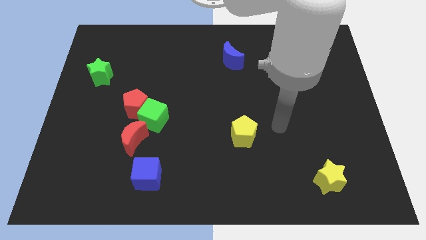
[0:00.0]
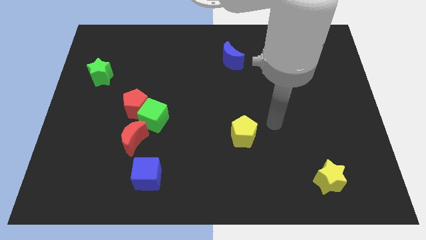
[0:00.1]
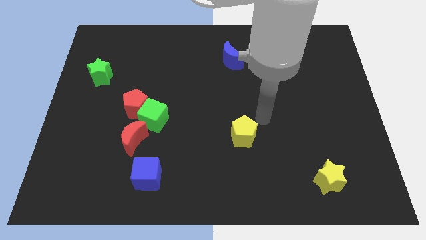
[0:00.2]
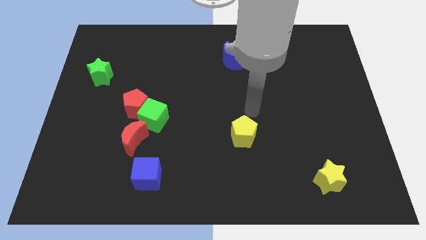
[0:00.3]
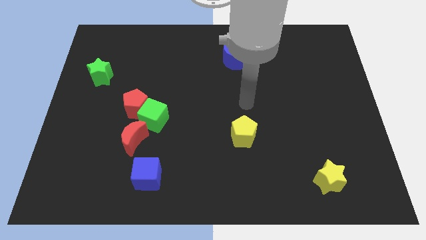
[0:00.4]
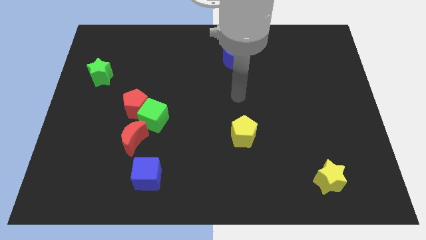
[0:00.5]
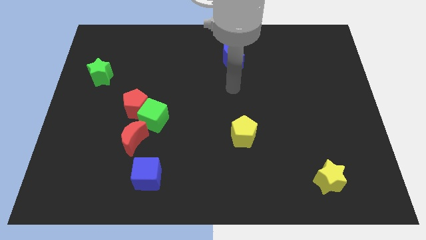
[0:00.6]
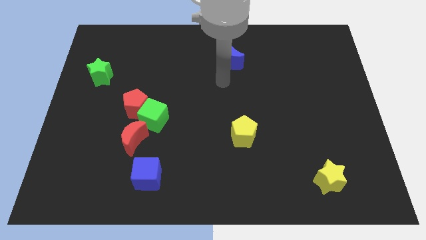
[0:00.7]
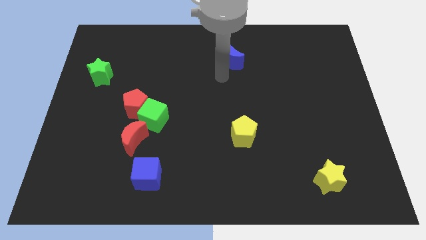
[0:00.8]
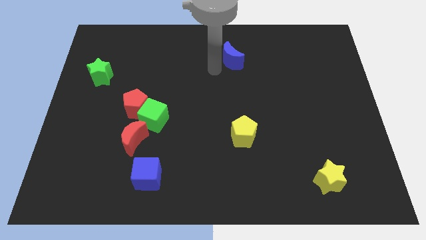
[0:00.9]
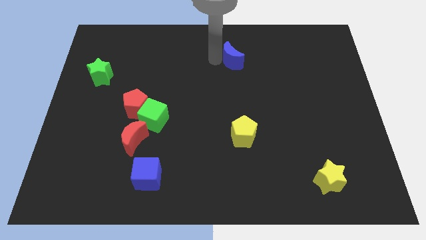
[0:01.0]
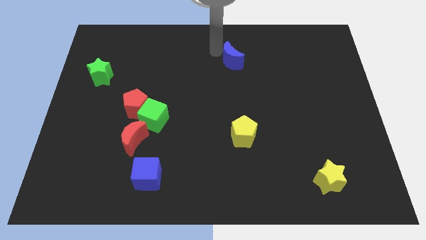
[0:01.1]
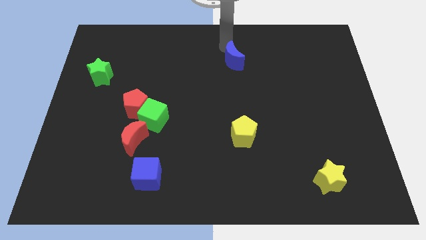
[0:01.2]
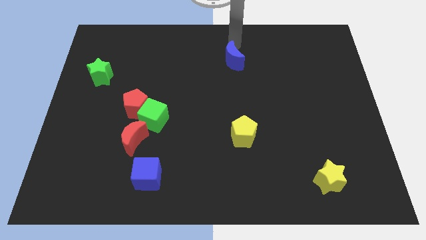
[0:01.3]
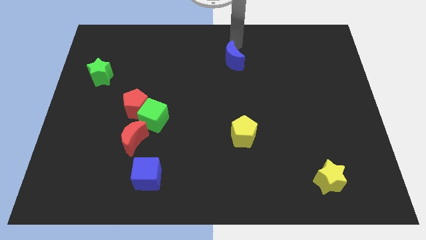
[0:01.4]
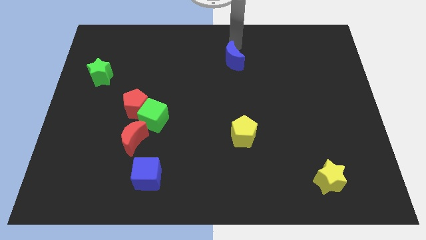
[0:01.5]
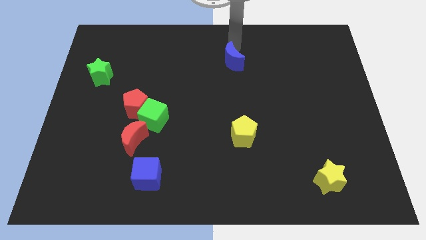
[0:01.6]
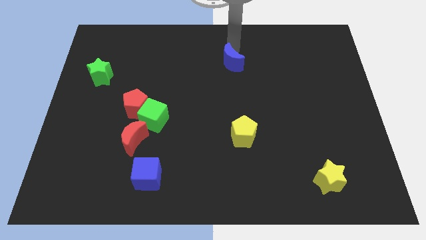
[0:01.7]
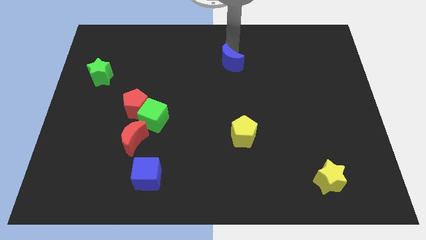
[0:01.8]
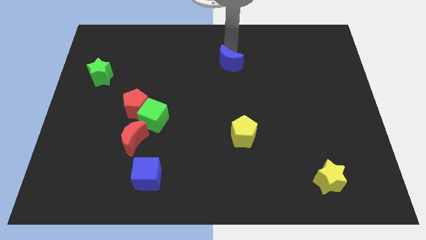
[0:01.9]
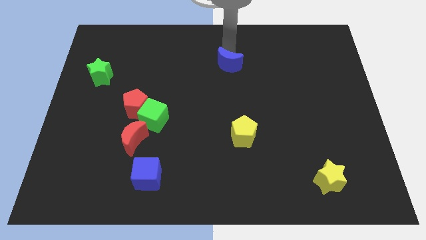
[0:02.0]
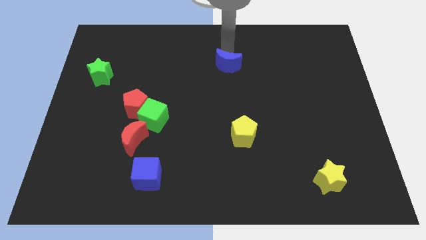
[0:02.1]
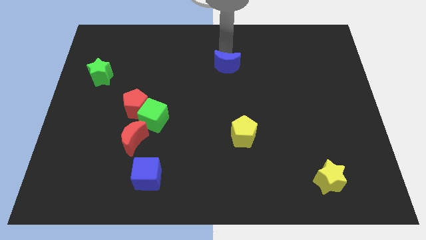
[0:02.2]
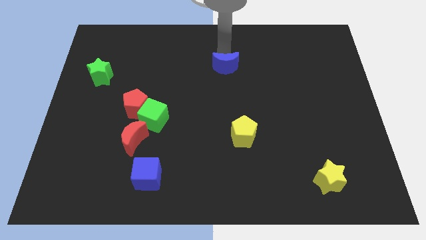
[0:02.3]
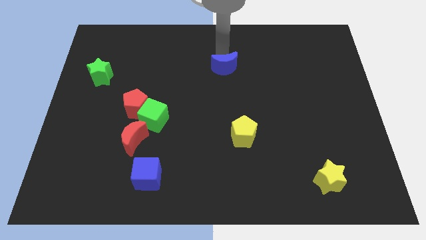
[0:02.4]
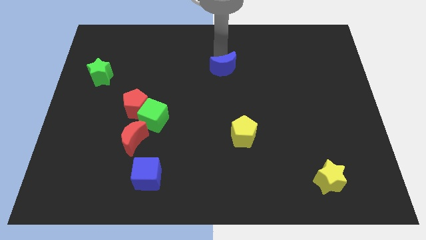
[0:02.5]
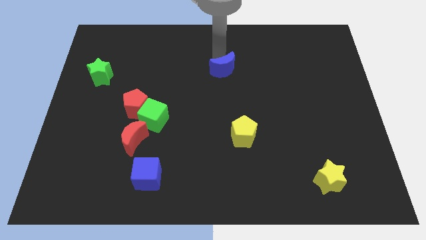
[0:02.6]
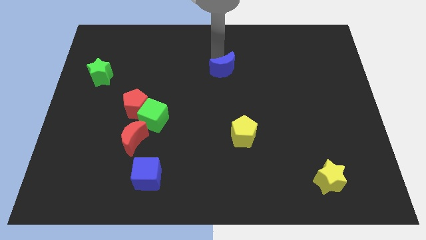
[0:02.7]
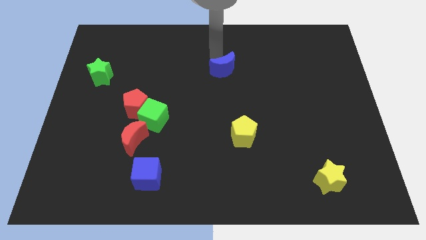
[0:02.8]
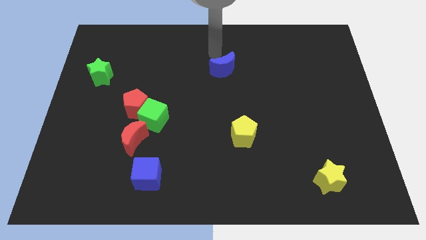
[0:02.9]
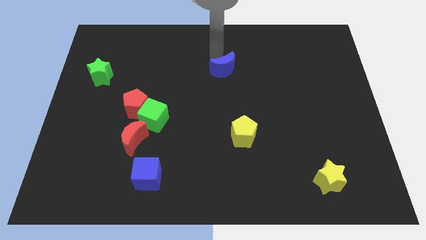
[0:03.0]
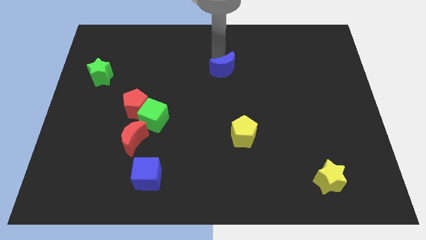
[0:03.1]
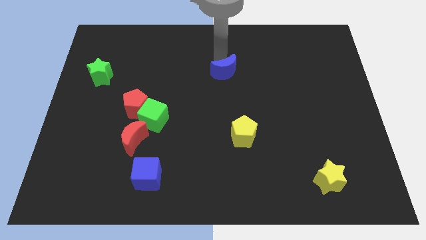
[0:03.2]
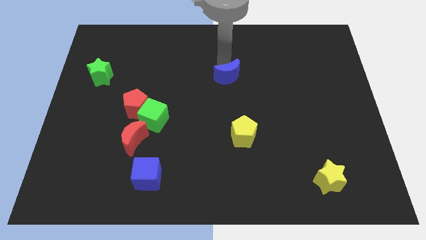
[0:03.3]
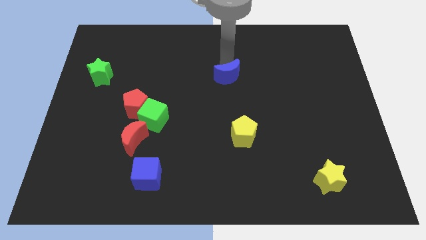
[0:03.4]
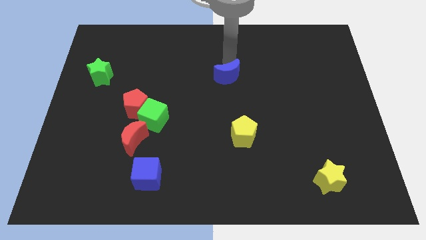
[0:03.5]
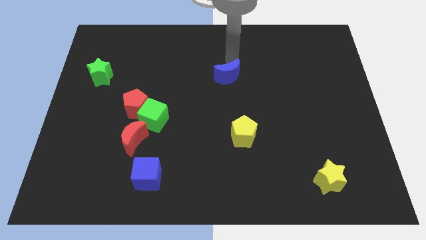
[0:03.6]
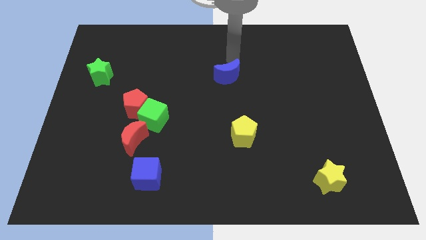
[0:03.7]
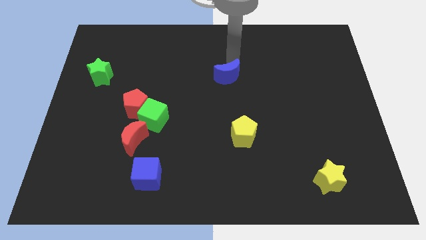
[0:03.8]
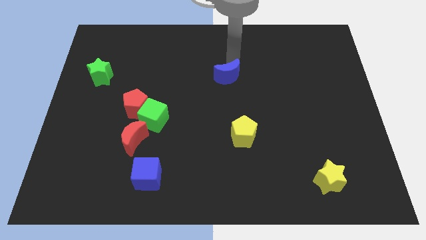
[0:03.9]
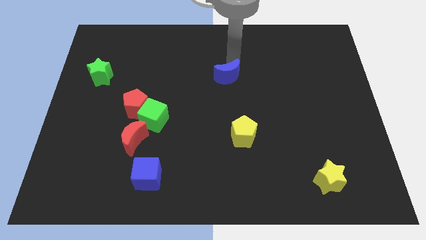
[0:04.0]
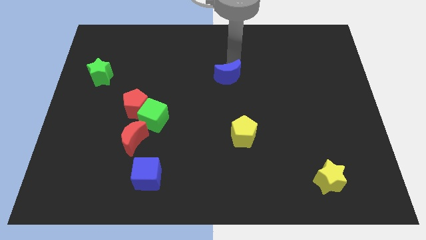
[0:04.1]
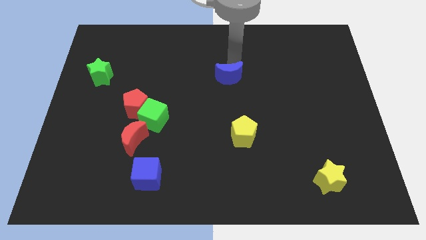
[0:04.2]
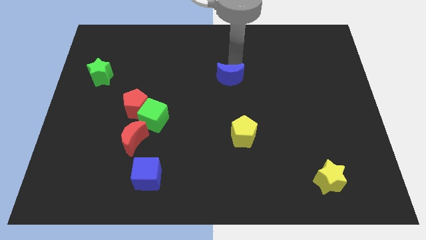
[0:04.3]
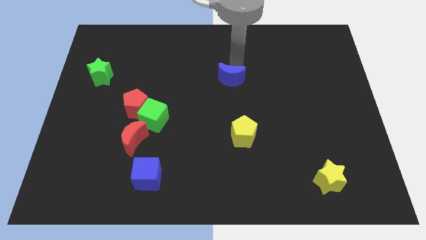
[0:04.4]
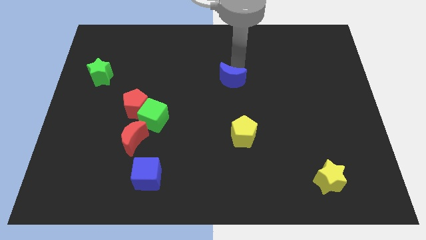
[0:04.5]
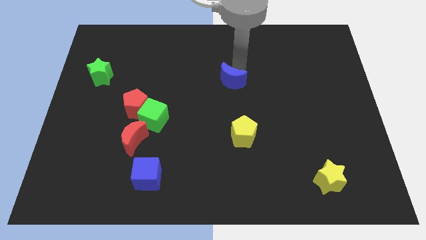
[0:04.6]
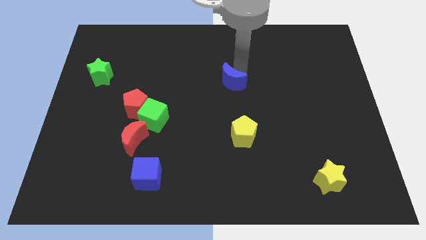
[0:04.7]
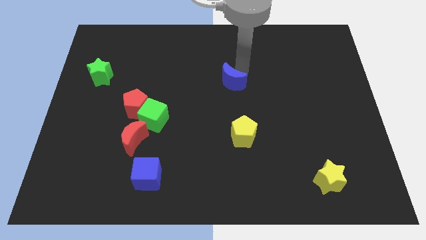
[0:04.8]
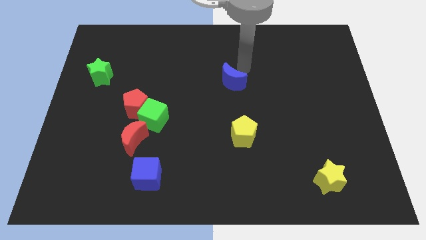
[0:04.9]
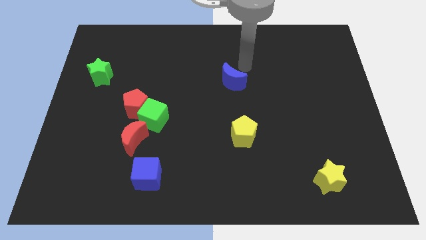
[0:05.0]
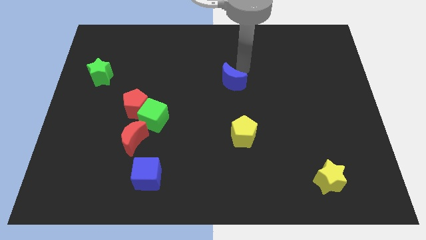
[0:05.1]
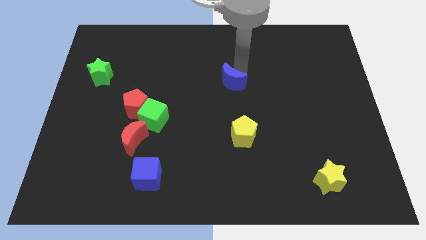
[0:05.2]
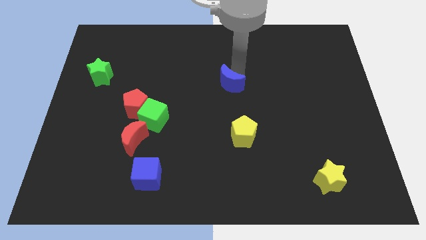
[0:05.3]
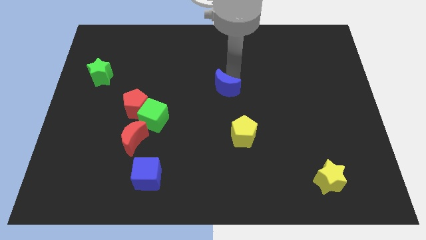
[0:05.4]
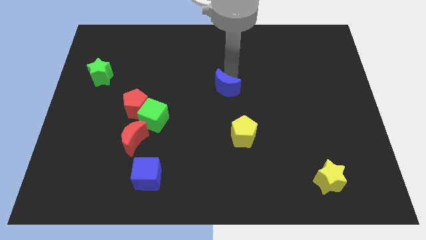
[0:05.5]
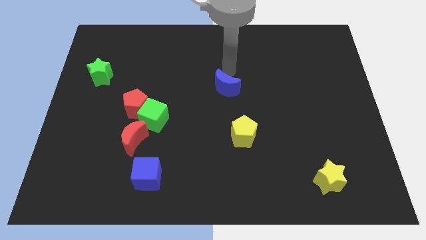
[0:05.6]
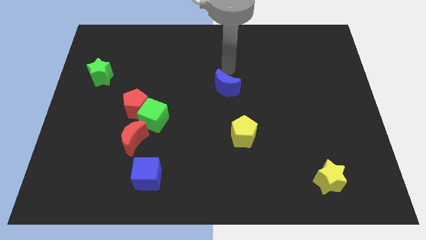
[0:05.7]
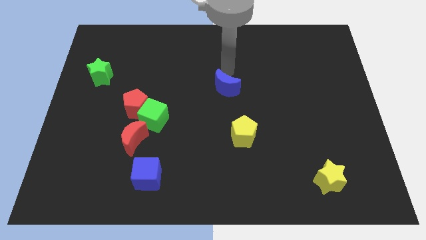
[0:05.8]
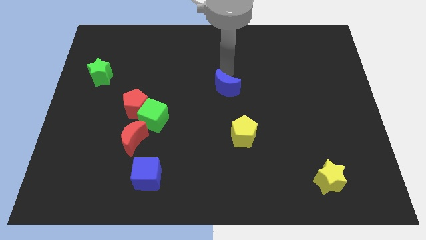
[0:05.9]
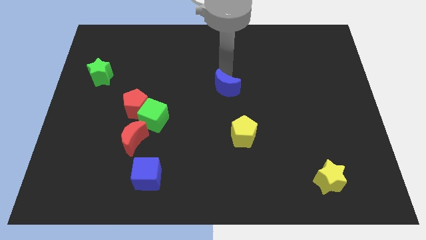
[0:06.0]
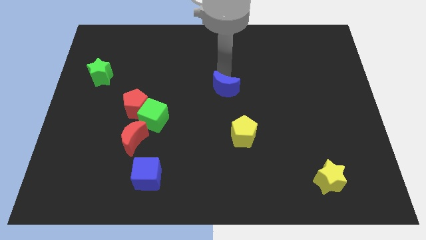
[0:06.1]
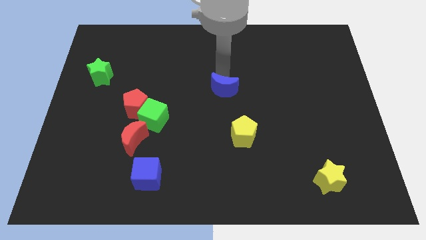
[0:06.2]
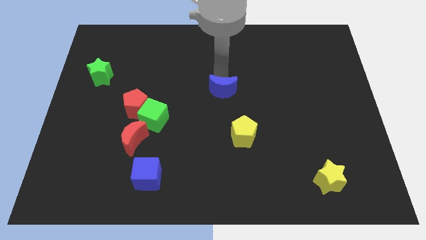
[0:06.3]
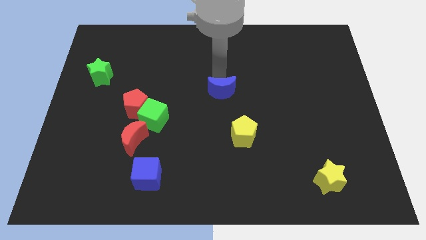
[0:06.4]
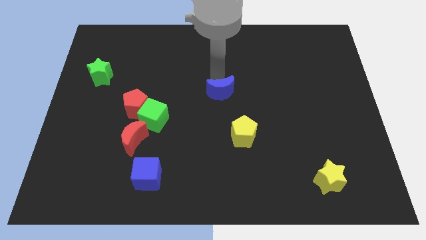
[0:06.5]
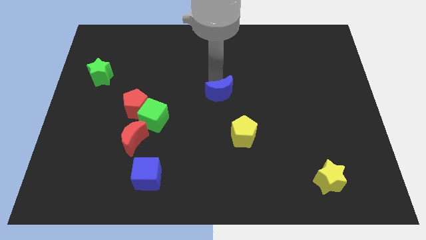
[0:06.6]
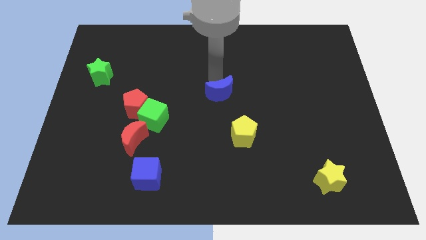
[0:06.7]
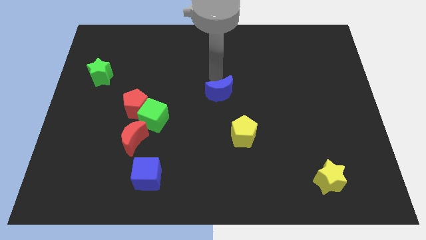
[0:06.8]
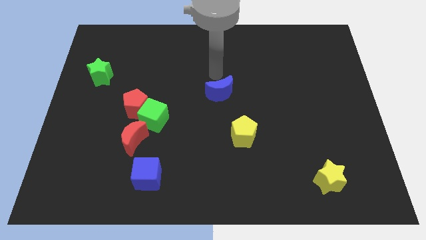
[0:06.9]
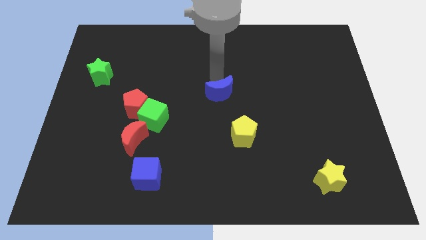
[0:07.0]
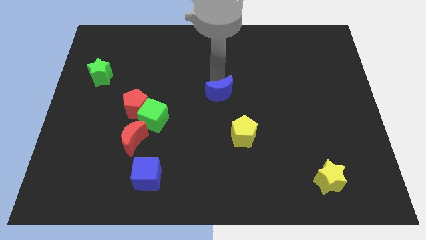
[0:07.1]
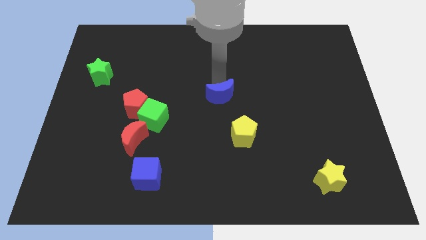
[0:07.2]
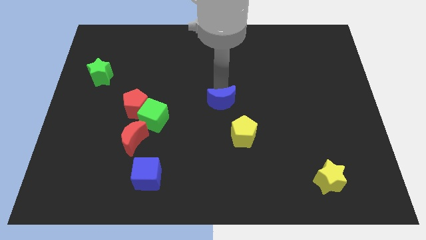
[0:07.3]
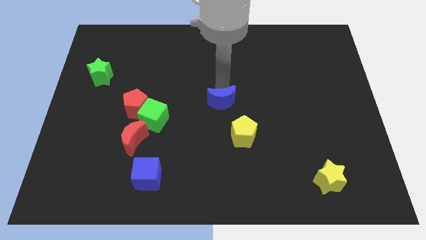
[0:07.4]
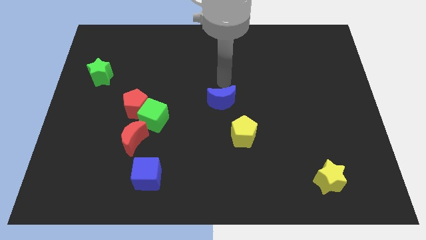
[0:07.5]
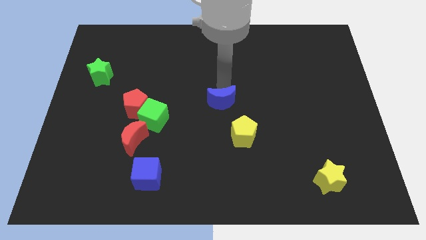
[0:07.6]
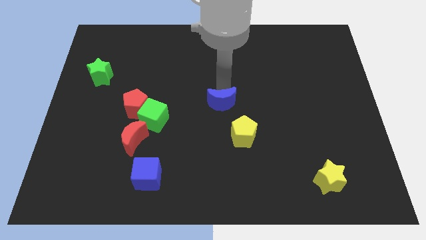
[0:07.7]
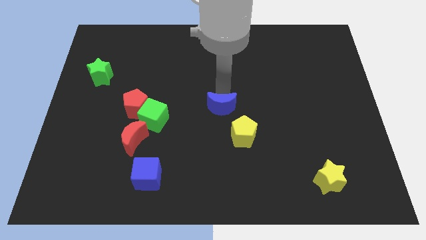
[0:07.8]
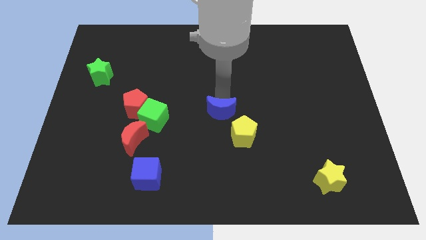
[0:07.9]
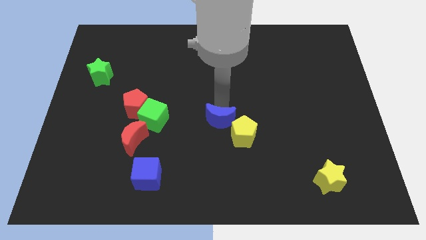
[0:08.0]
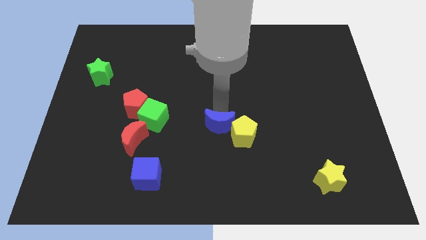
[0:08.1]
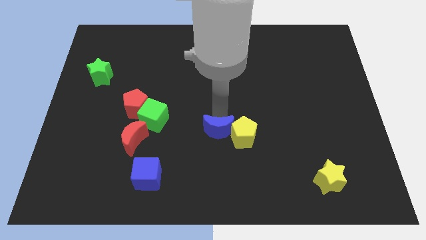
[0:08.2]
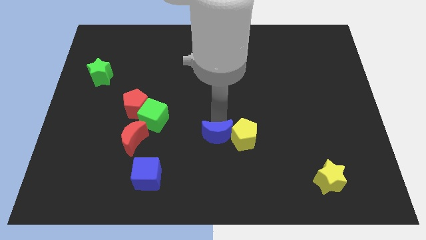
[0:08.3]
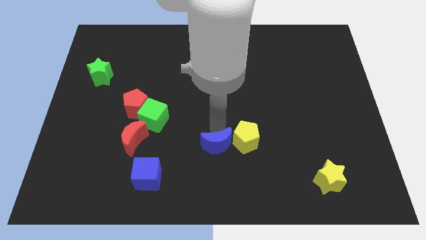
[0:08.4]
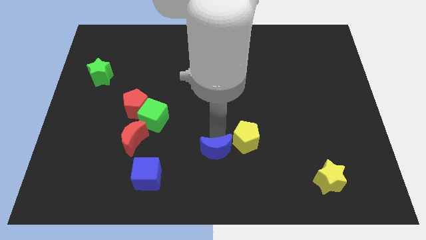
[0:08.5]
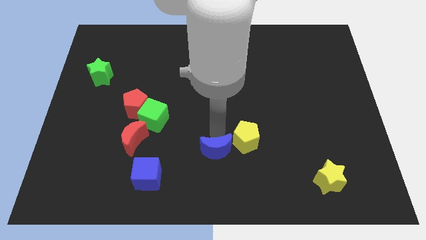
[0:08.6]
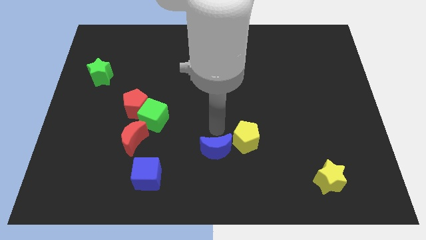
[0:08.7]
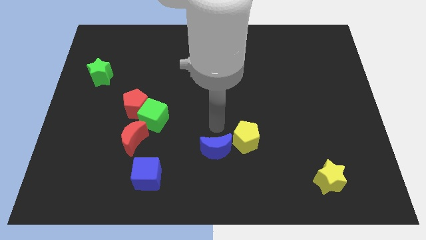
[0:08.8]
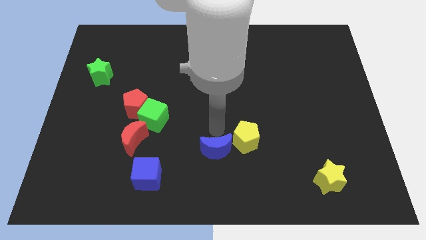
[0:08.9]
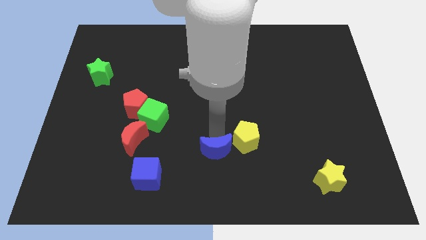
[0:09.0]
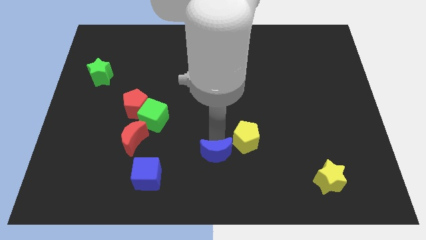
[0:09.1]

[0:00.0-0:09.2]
push the blue moon to the bottom side
